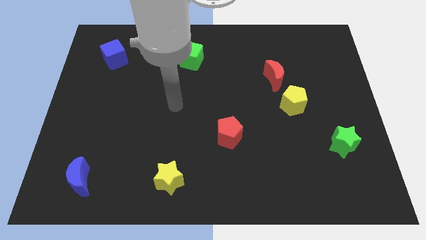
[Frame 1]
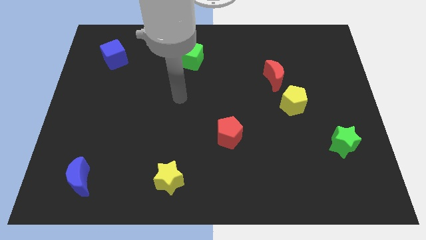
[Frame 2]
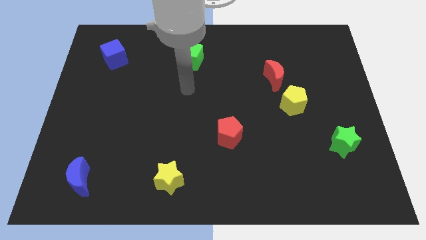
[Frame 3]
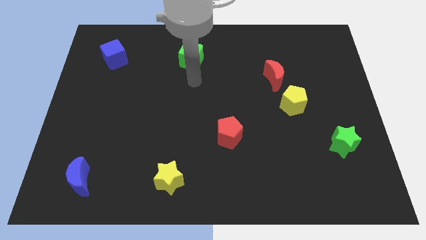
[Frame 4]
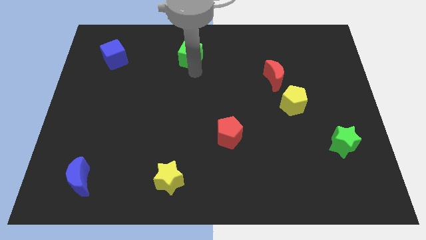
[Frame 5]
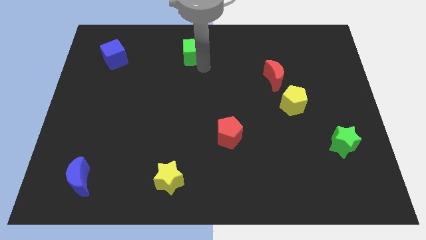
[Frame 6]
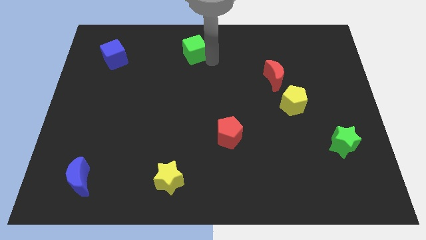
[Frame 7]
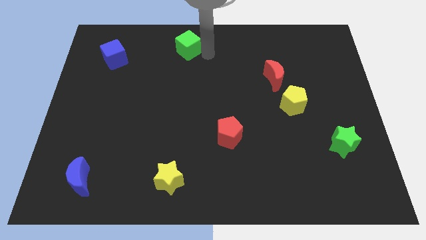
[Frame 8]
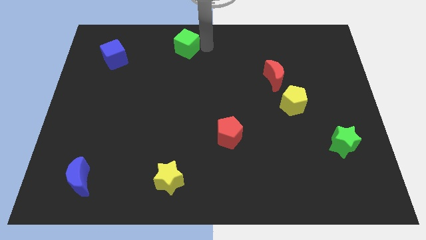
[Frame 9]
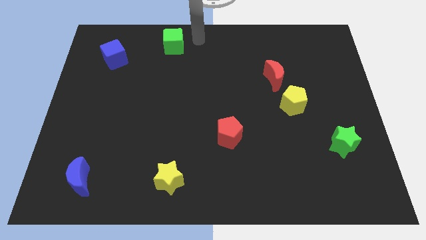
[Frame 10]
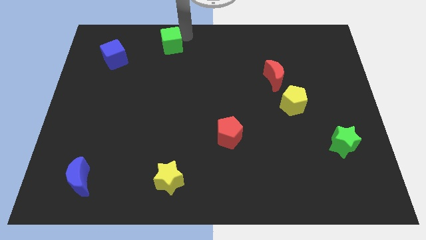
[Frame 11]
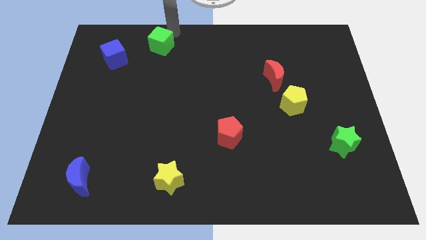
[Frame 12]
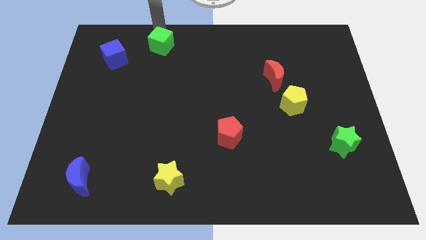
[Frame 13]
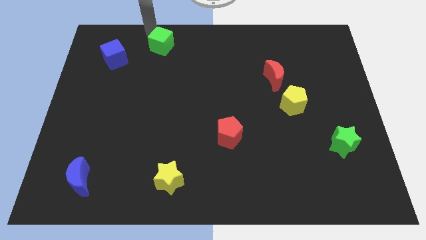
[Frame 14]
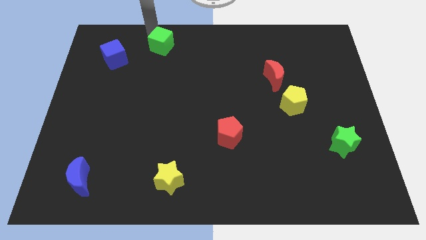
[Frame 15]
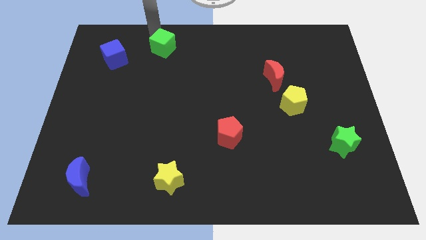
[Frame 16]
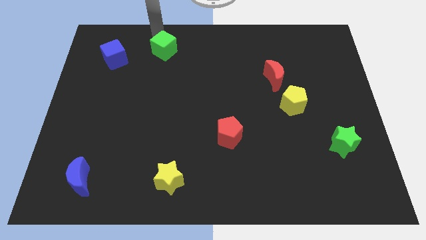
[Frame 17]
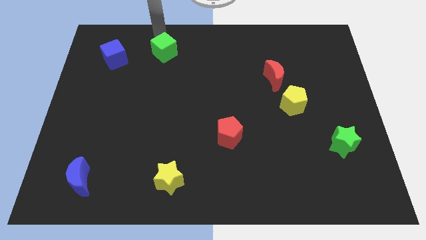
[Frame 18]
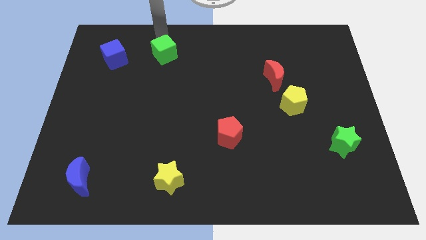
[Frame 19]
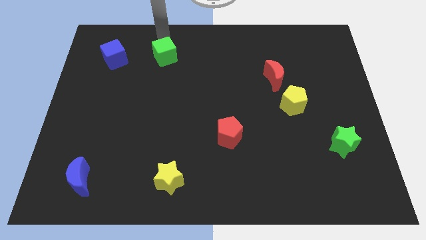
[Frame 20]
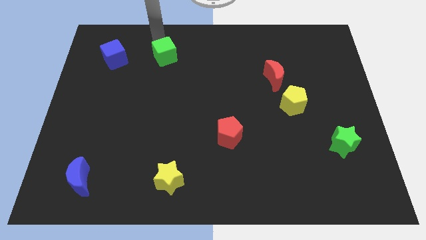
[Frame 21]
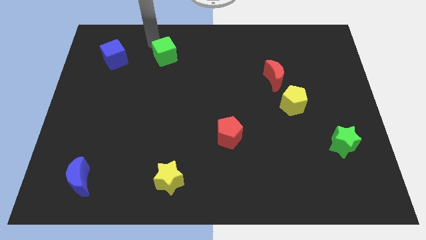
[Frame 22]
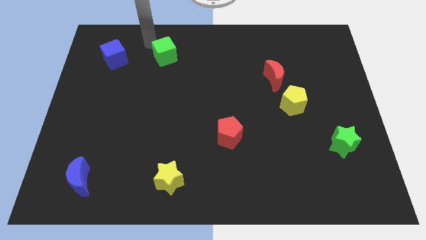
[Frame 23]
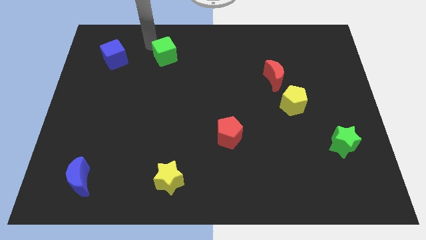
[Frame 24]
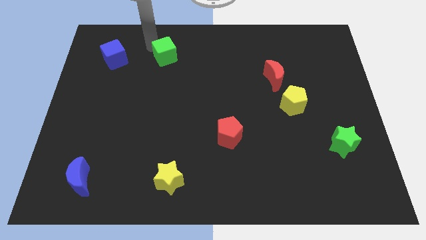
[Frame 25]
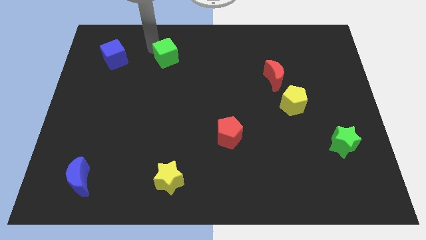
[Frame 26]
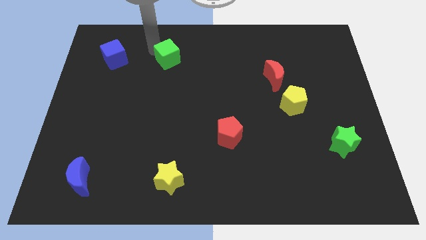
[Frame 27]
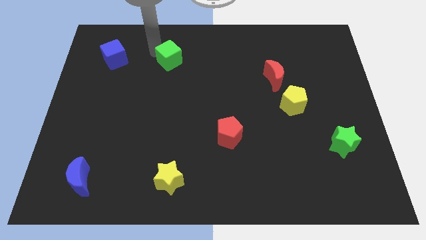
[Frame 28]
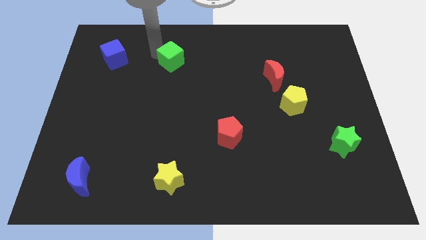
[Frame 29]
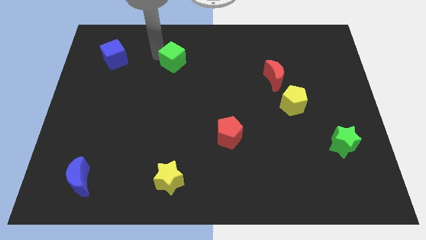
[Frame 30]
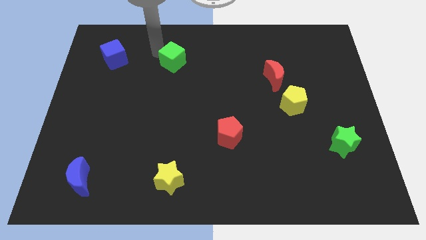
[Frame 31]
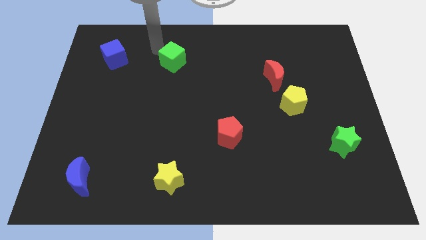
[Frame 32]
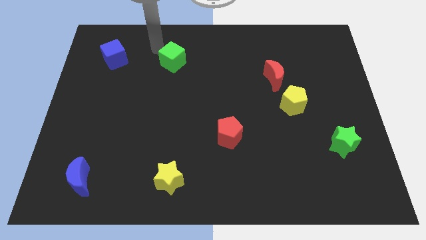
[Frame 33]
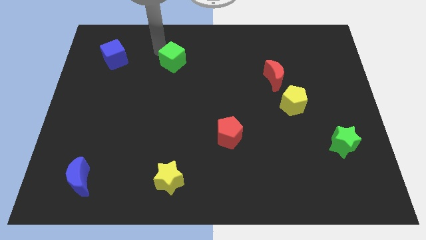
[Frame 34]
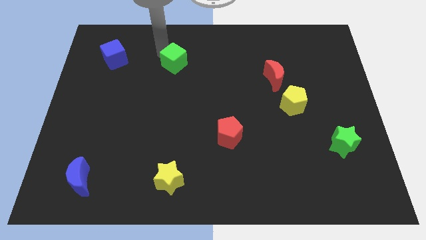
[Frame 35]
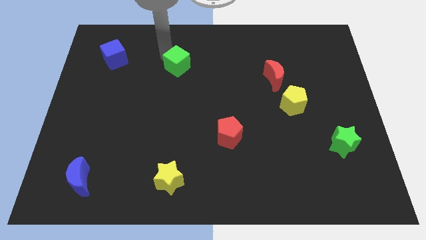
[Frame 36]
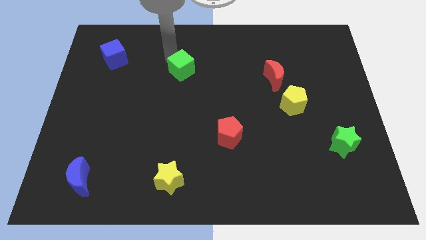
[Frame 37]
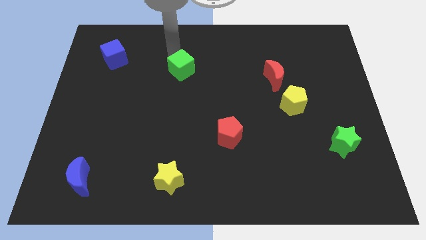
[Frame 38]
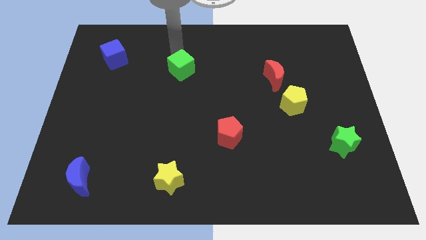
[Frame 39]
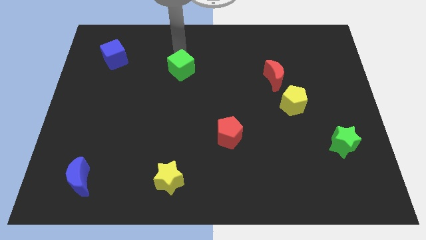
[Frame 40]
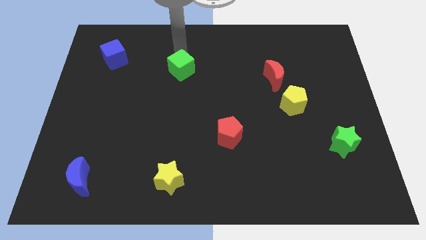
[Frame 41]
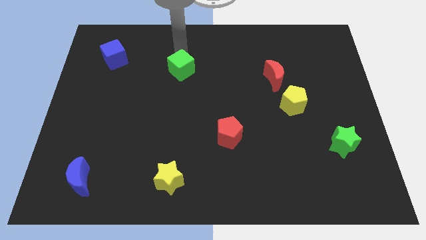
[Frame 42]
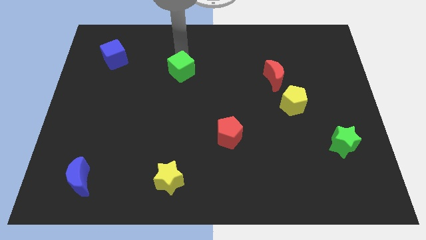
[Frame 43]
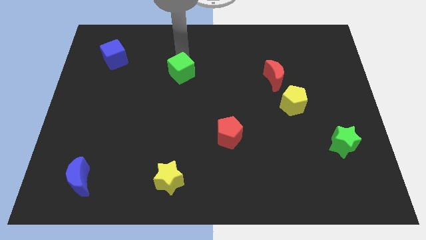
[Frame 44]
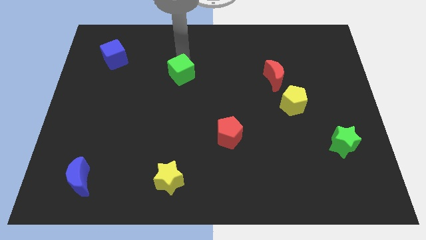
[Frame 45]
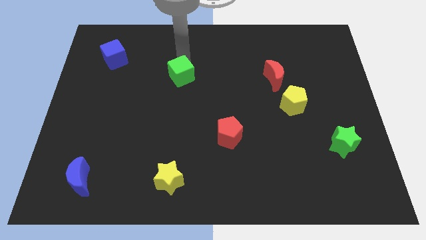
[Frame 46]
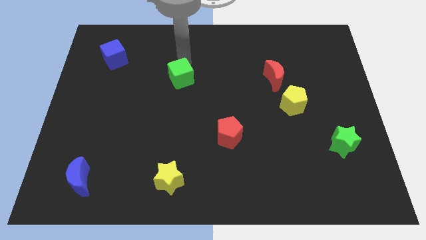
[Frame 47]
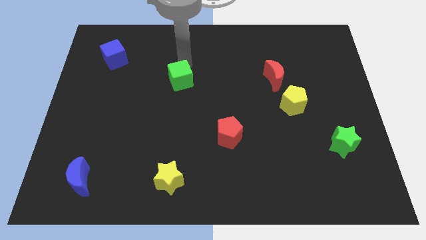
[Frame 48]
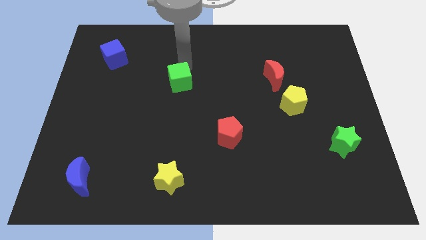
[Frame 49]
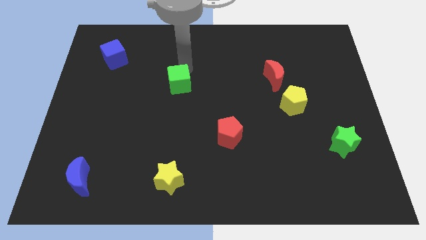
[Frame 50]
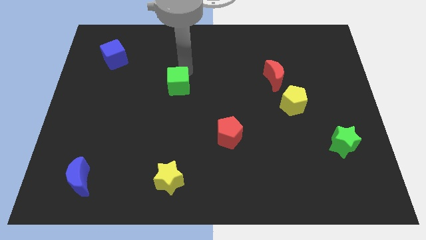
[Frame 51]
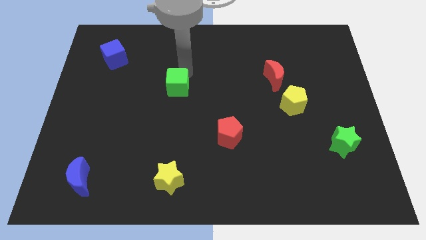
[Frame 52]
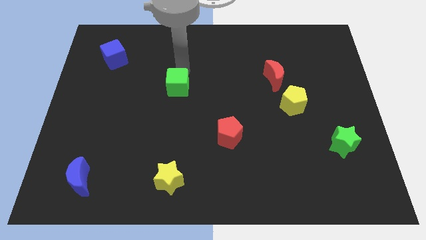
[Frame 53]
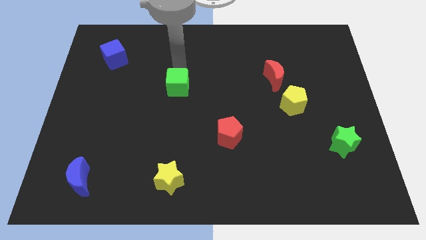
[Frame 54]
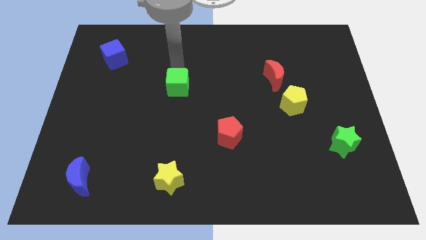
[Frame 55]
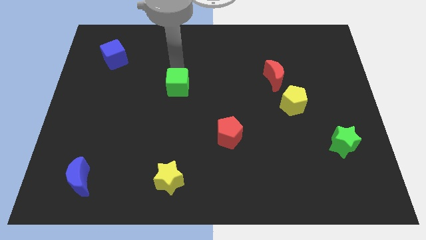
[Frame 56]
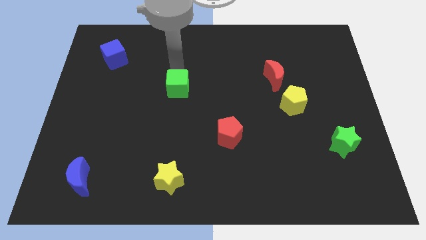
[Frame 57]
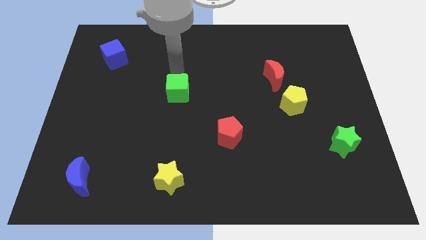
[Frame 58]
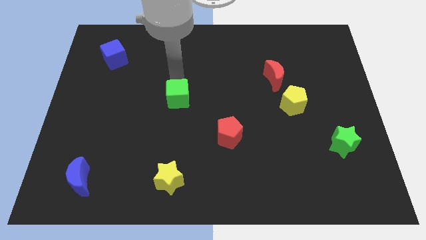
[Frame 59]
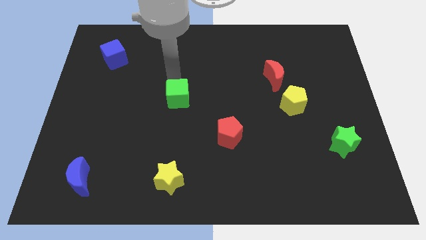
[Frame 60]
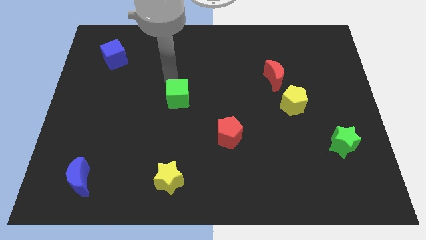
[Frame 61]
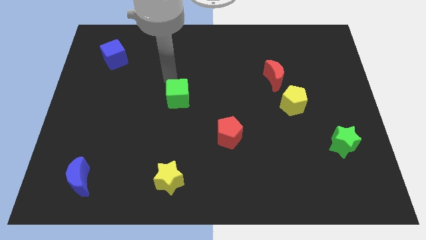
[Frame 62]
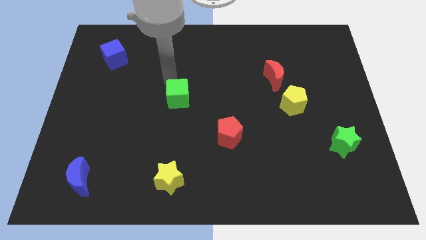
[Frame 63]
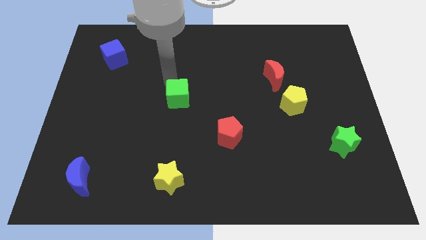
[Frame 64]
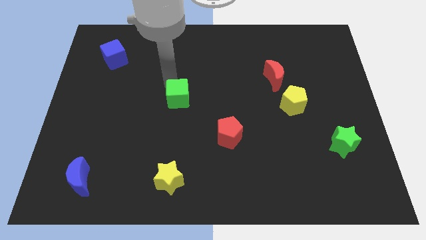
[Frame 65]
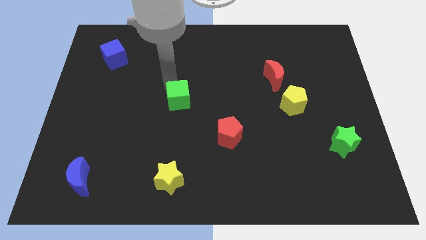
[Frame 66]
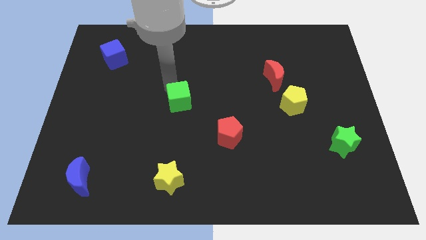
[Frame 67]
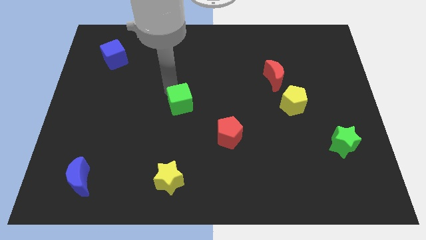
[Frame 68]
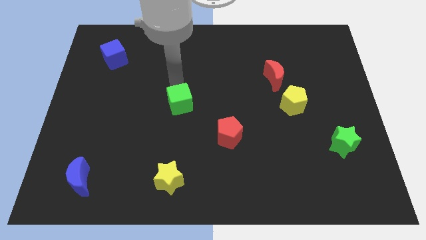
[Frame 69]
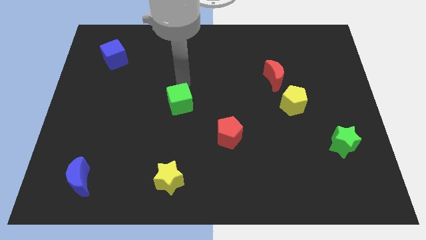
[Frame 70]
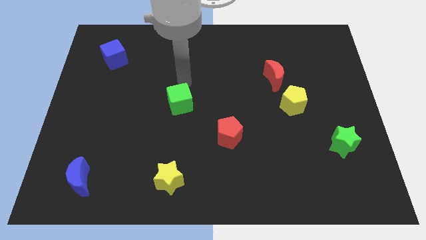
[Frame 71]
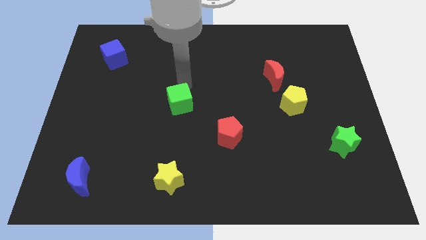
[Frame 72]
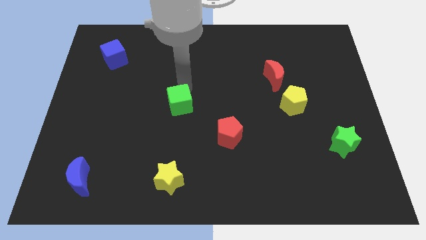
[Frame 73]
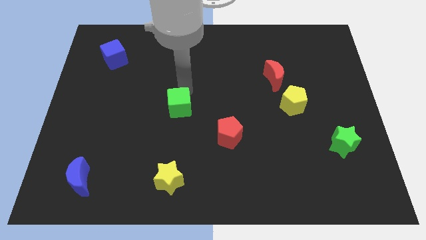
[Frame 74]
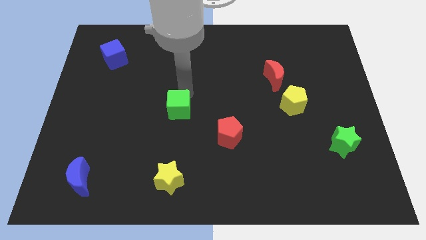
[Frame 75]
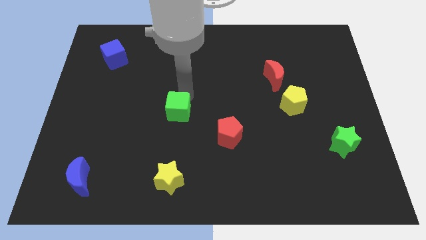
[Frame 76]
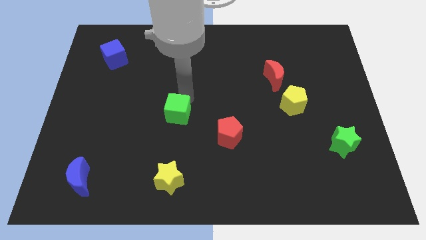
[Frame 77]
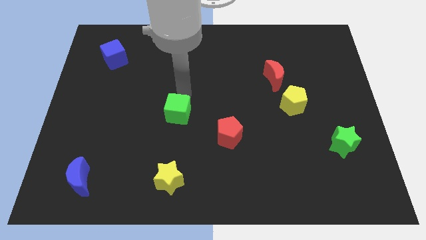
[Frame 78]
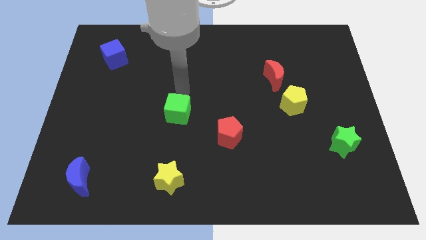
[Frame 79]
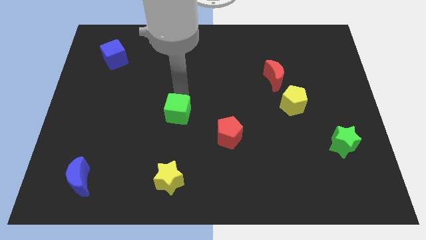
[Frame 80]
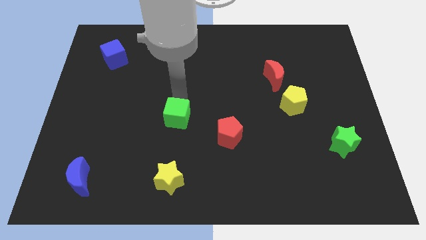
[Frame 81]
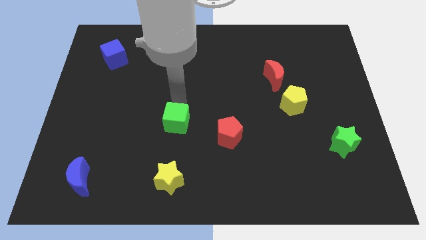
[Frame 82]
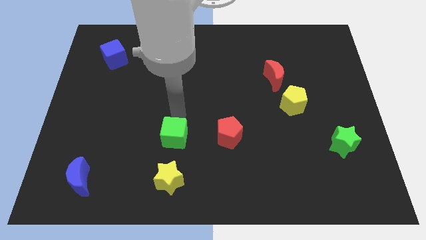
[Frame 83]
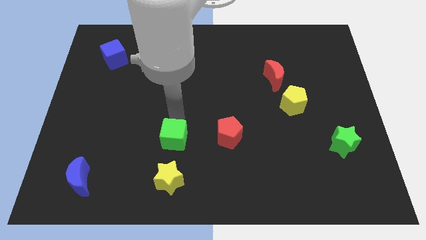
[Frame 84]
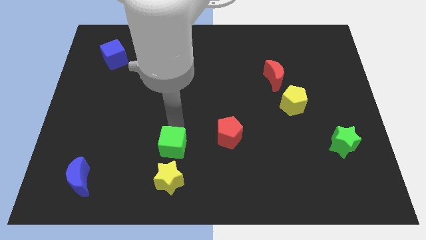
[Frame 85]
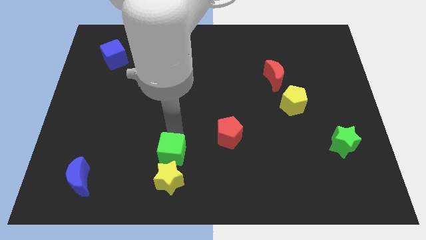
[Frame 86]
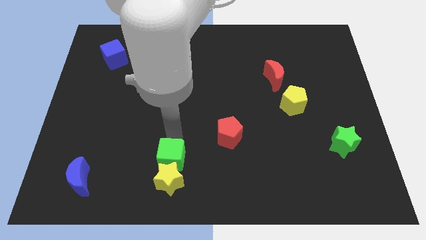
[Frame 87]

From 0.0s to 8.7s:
move the green cube to the yellow star

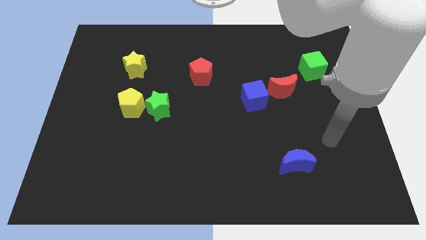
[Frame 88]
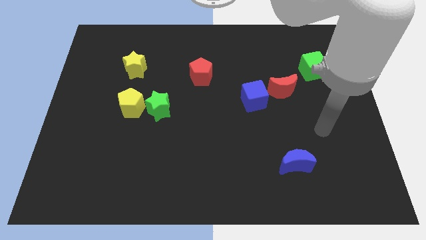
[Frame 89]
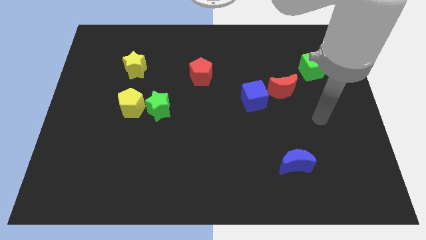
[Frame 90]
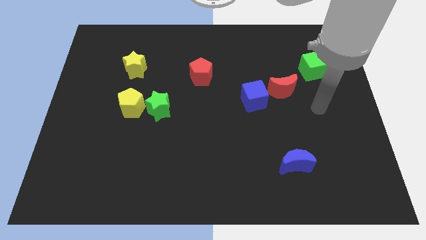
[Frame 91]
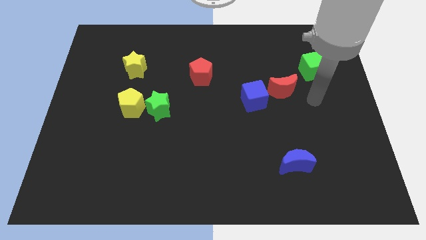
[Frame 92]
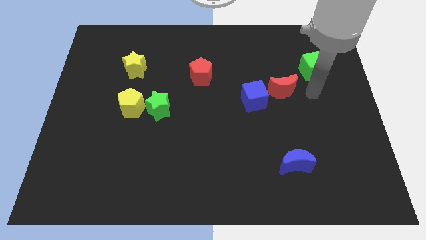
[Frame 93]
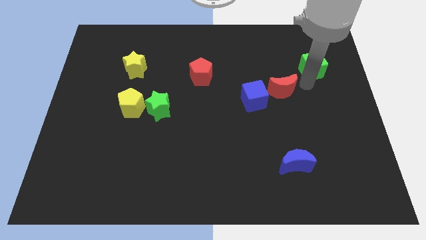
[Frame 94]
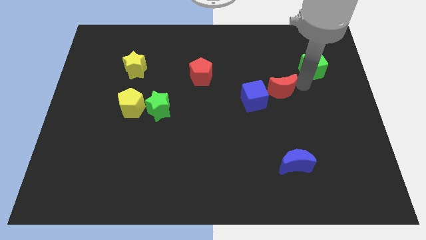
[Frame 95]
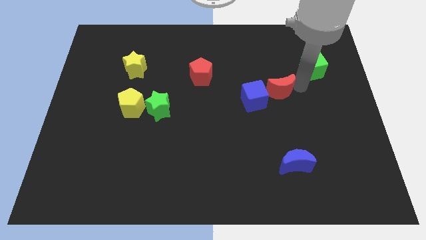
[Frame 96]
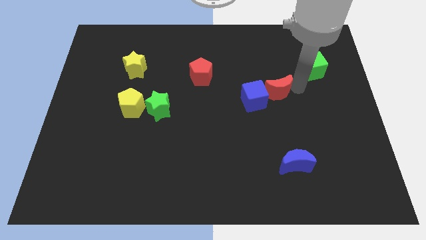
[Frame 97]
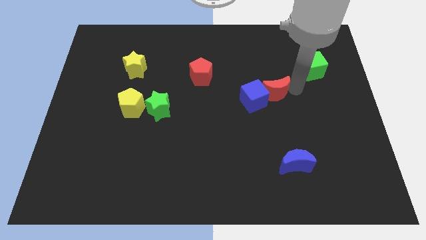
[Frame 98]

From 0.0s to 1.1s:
put the red moon next to the blue cube
